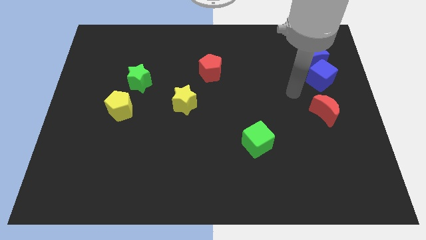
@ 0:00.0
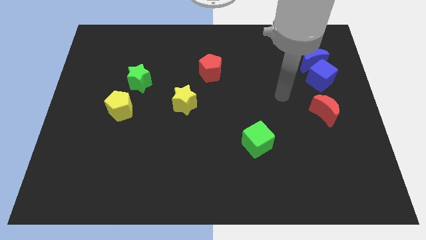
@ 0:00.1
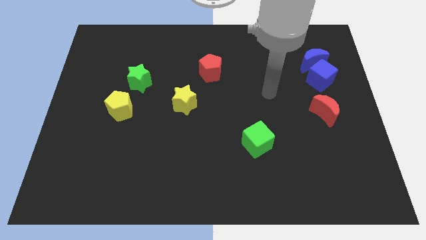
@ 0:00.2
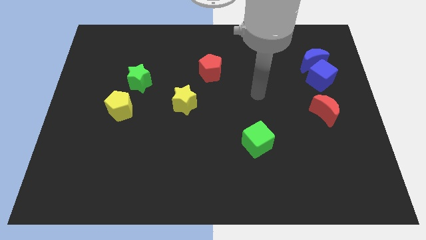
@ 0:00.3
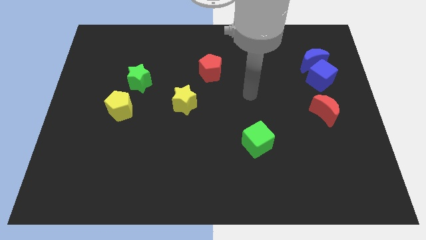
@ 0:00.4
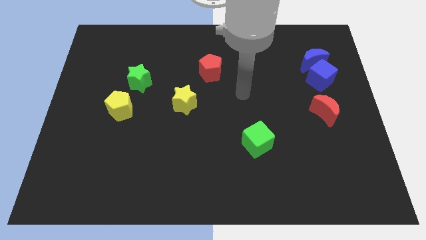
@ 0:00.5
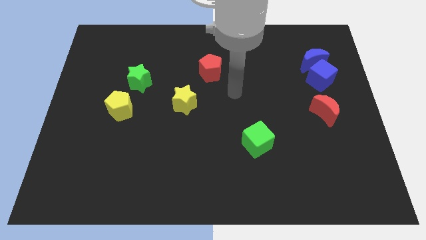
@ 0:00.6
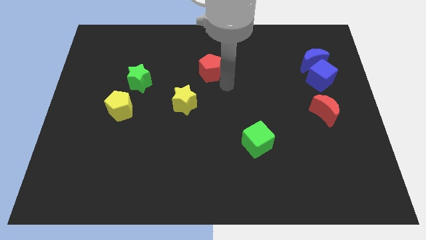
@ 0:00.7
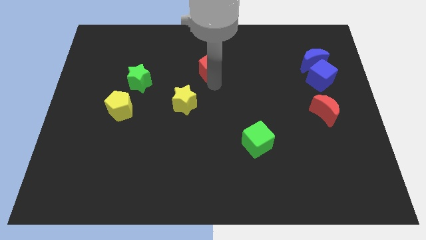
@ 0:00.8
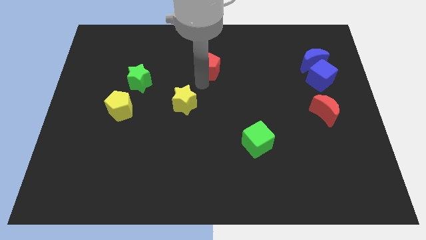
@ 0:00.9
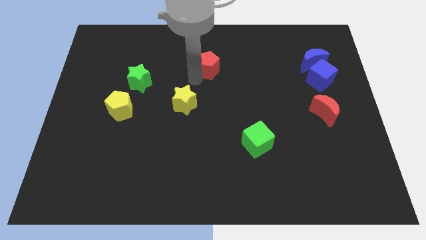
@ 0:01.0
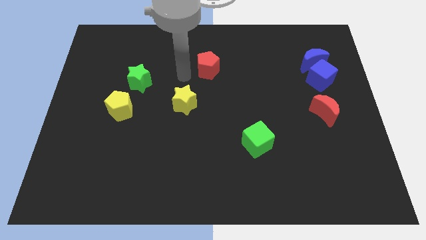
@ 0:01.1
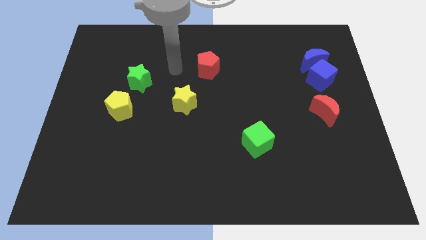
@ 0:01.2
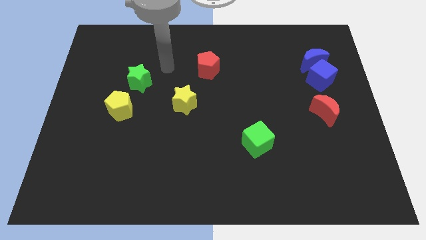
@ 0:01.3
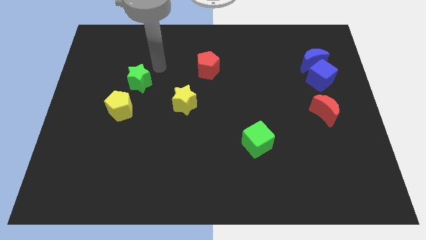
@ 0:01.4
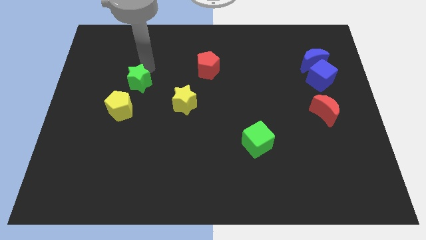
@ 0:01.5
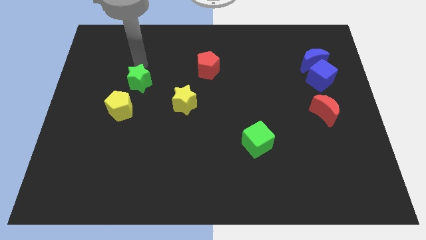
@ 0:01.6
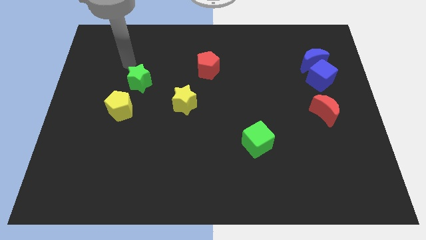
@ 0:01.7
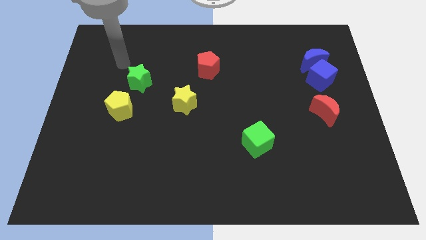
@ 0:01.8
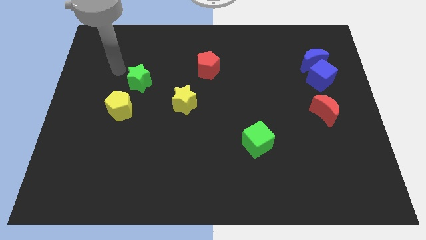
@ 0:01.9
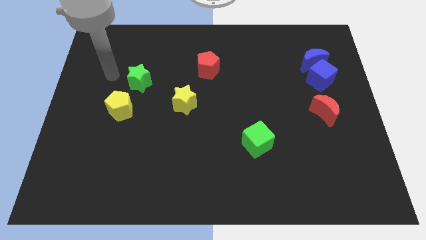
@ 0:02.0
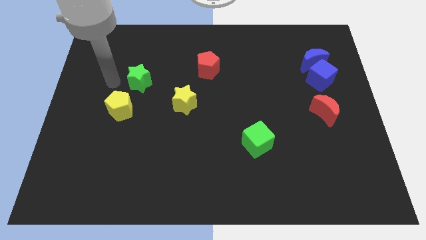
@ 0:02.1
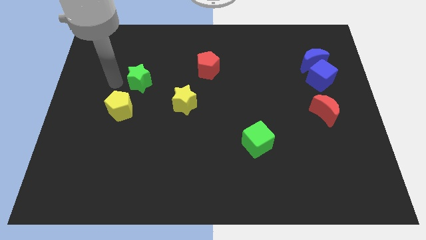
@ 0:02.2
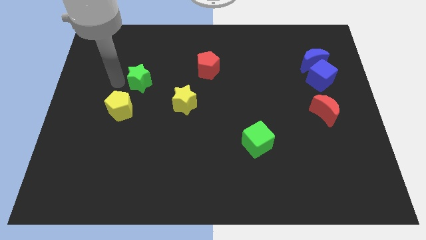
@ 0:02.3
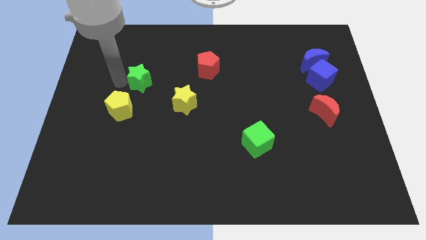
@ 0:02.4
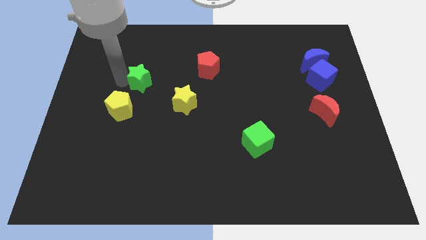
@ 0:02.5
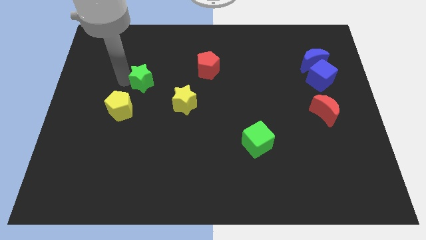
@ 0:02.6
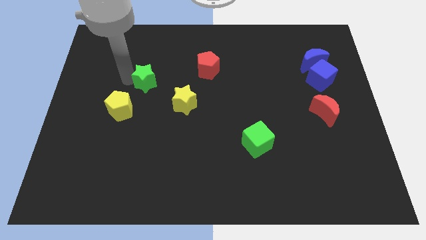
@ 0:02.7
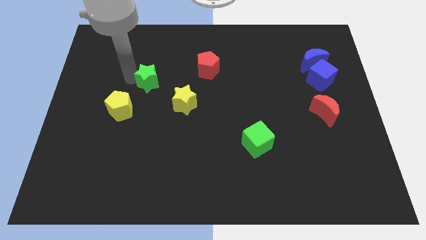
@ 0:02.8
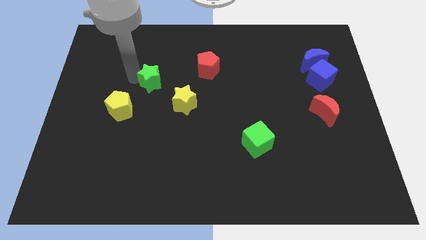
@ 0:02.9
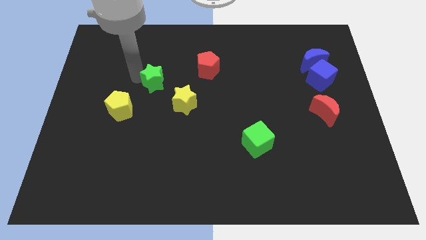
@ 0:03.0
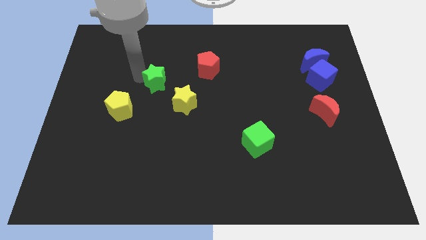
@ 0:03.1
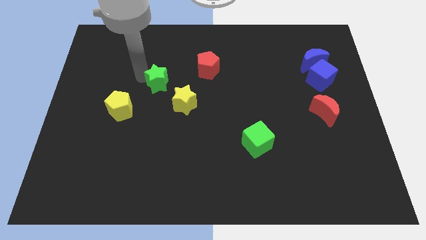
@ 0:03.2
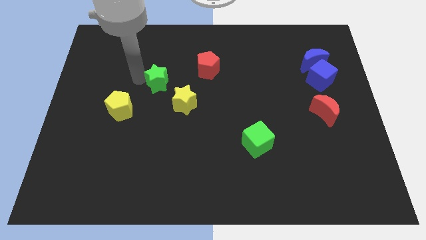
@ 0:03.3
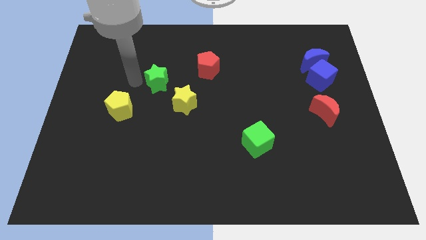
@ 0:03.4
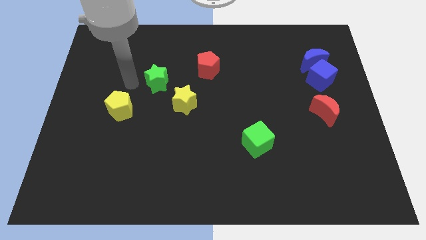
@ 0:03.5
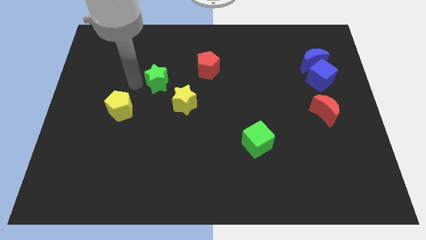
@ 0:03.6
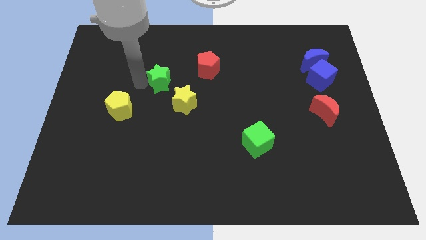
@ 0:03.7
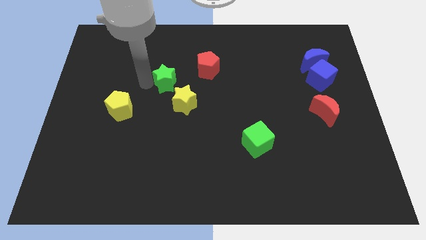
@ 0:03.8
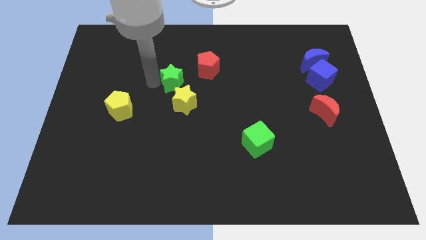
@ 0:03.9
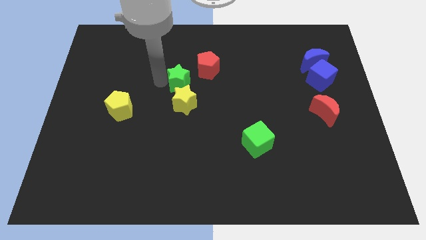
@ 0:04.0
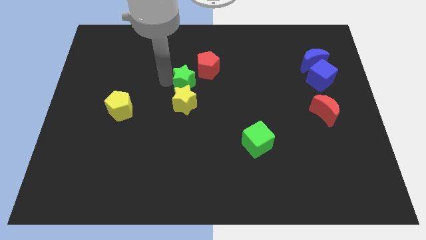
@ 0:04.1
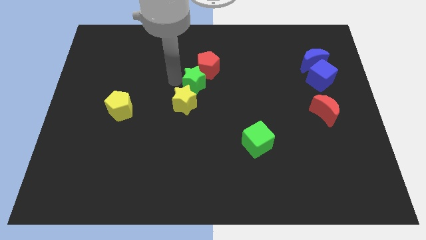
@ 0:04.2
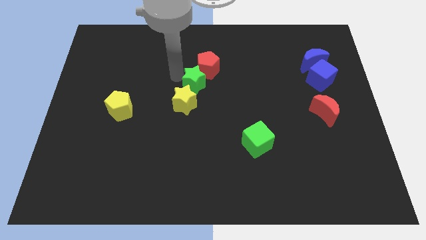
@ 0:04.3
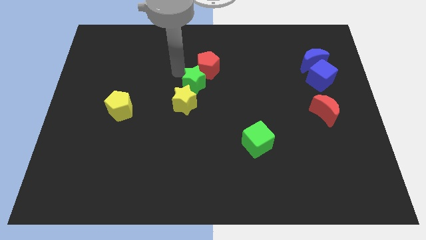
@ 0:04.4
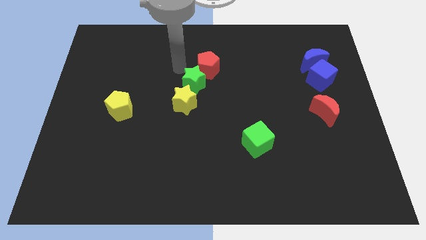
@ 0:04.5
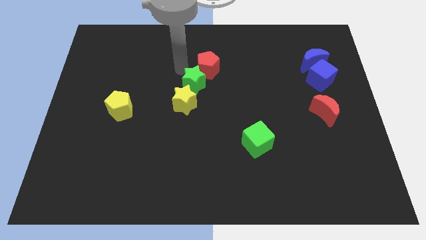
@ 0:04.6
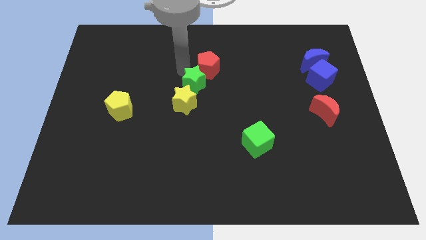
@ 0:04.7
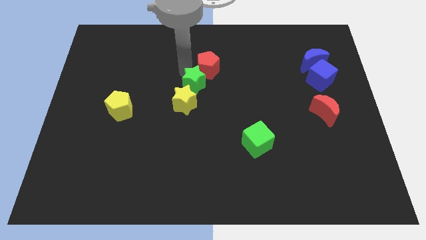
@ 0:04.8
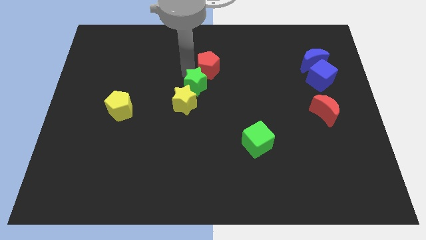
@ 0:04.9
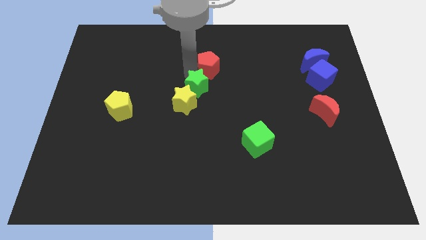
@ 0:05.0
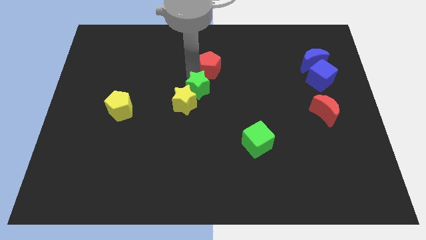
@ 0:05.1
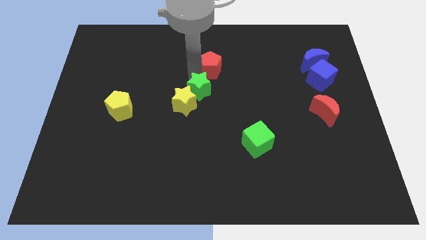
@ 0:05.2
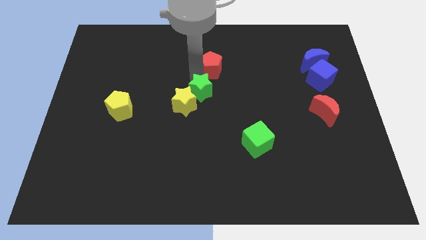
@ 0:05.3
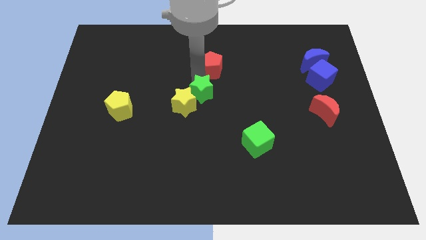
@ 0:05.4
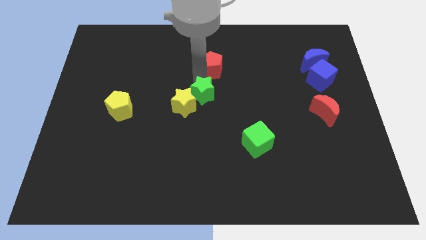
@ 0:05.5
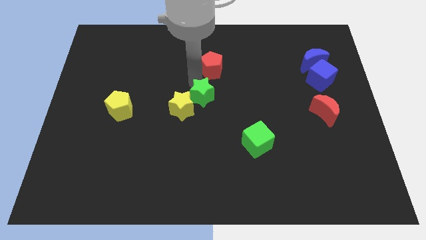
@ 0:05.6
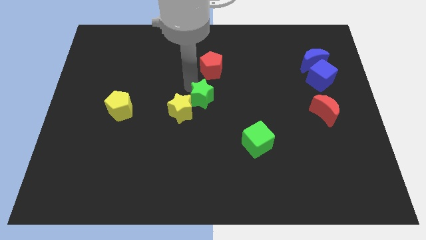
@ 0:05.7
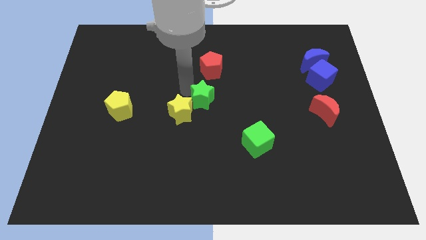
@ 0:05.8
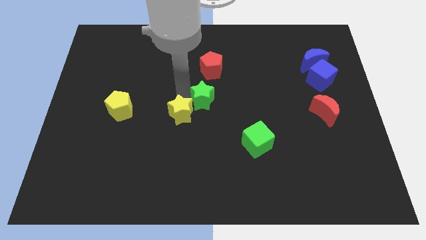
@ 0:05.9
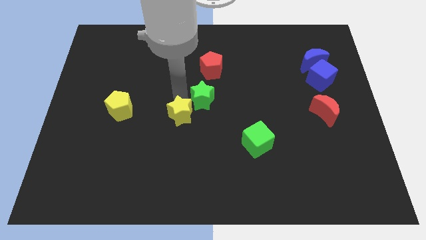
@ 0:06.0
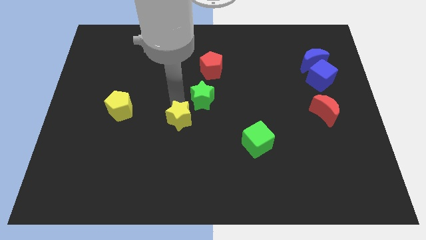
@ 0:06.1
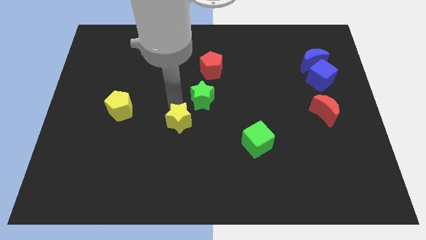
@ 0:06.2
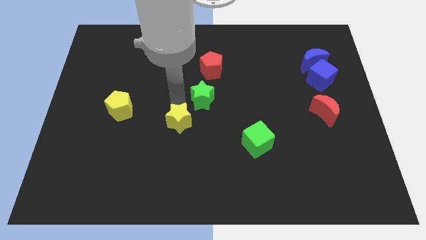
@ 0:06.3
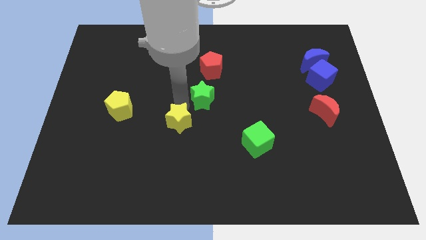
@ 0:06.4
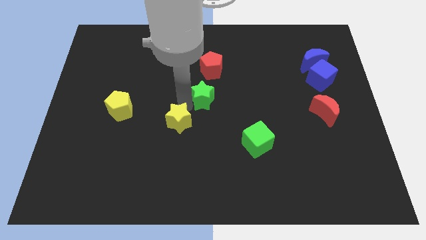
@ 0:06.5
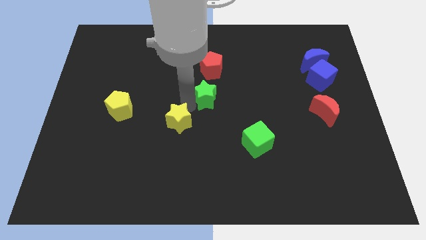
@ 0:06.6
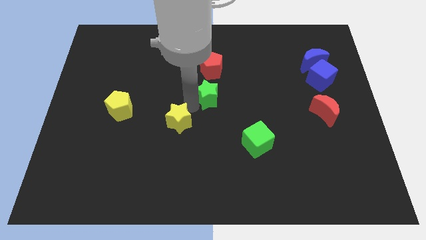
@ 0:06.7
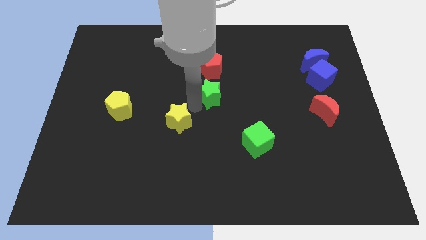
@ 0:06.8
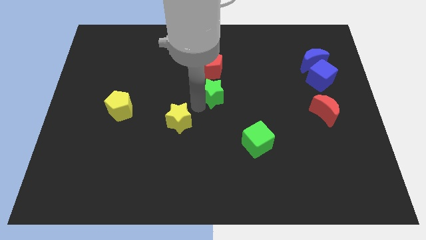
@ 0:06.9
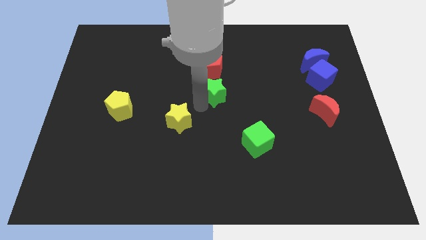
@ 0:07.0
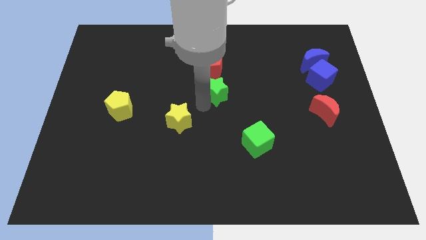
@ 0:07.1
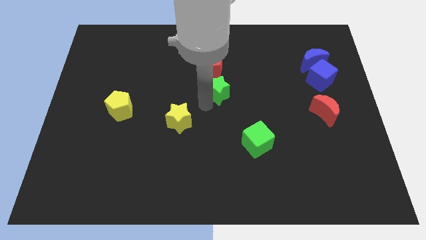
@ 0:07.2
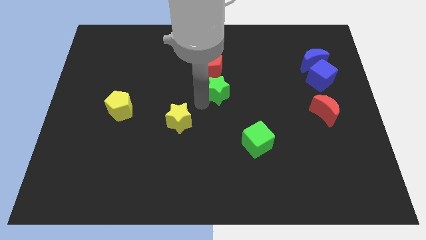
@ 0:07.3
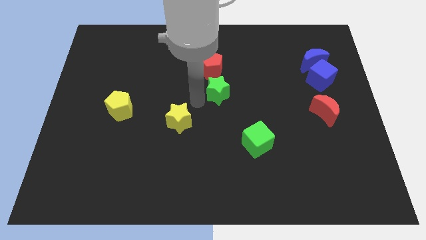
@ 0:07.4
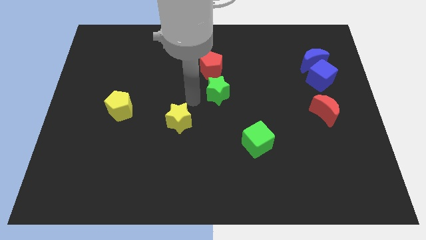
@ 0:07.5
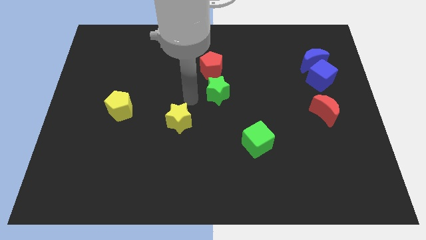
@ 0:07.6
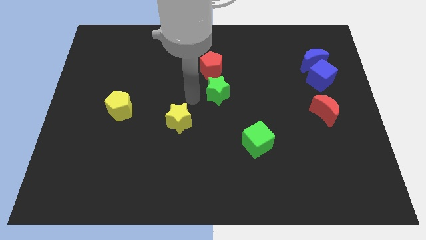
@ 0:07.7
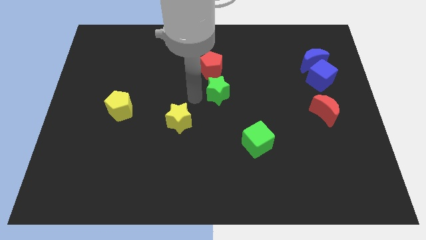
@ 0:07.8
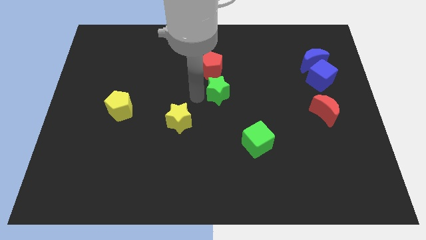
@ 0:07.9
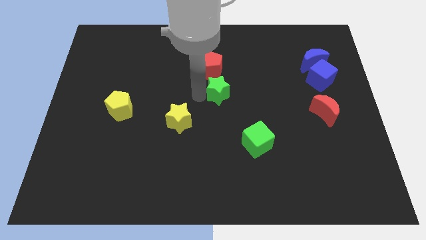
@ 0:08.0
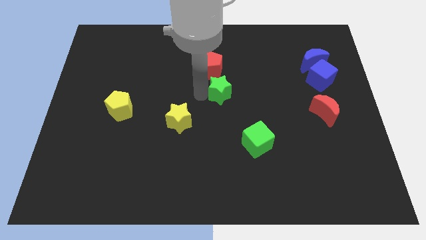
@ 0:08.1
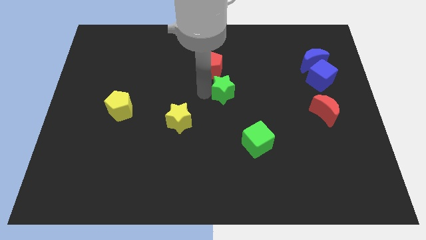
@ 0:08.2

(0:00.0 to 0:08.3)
push the green star to the right
